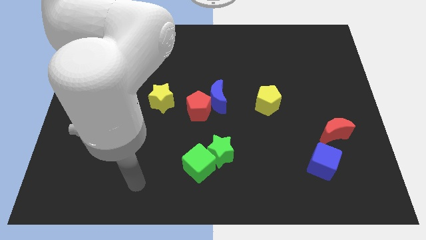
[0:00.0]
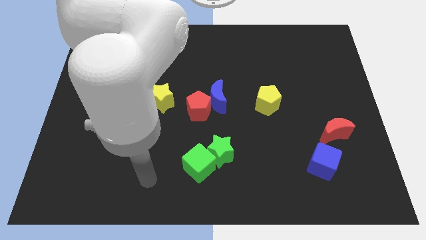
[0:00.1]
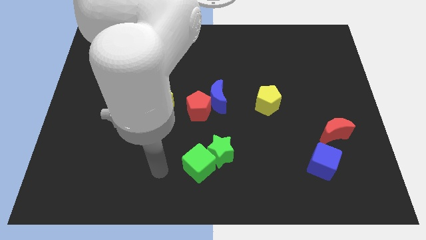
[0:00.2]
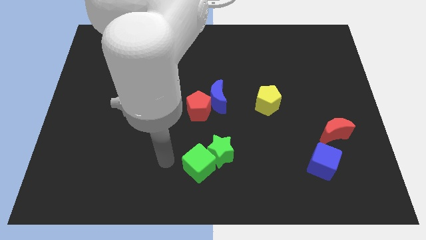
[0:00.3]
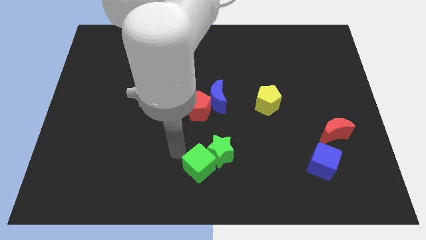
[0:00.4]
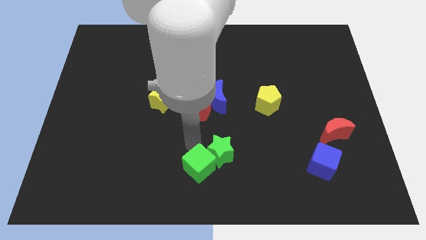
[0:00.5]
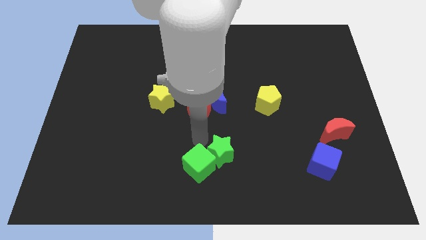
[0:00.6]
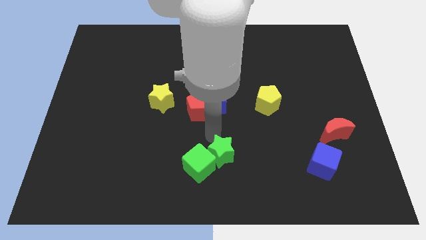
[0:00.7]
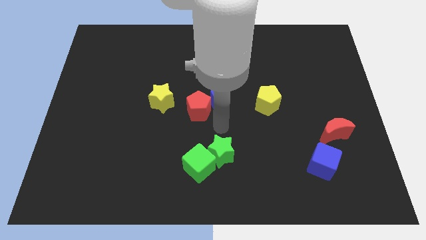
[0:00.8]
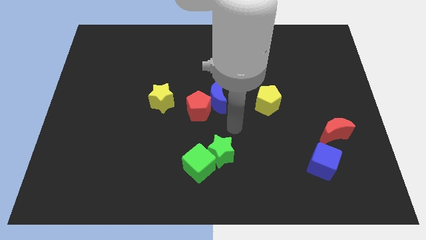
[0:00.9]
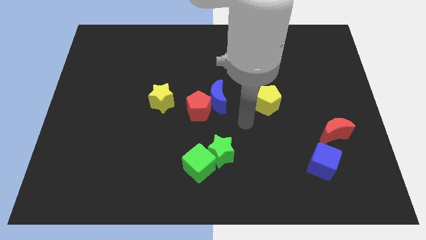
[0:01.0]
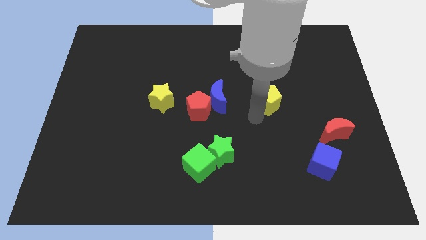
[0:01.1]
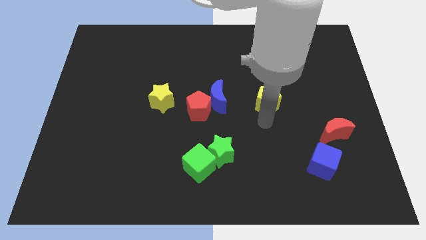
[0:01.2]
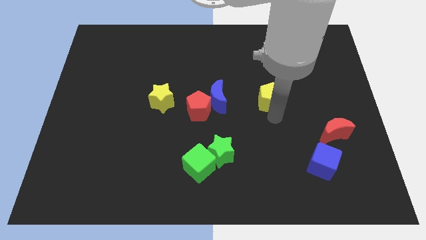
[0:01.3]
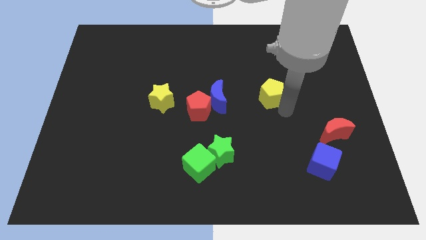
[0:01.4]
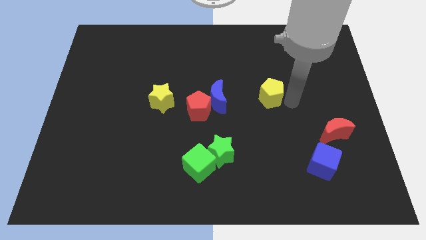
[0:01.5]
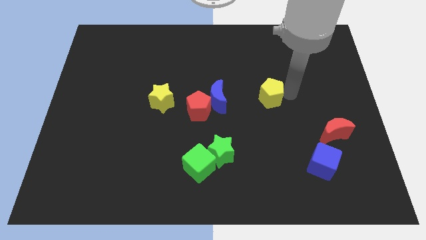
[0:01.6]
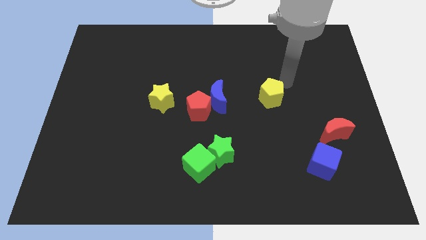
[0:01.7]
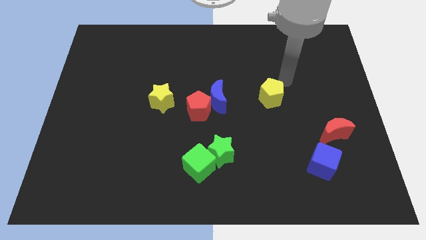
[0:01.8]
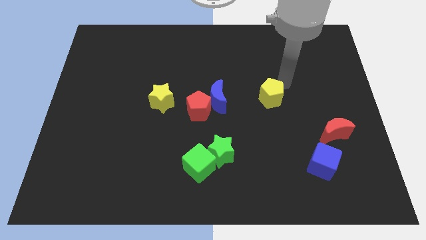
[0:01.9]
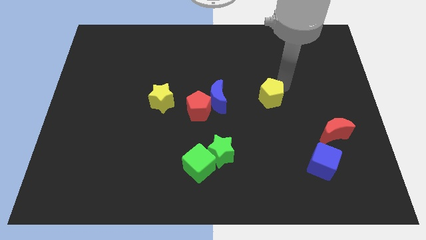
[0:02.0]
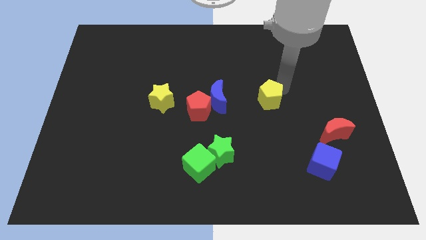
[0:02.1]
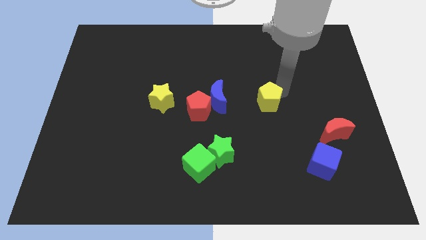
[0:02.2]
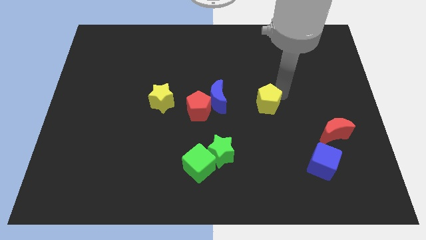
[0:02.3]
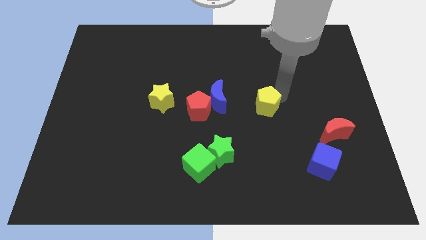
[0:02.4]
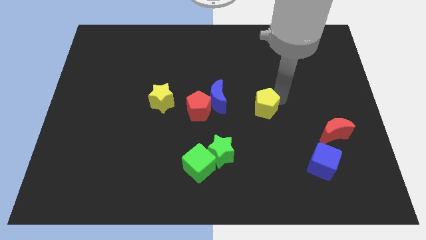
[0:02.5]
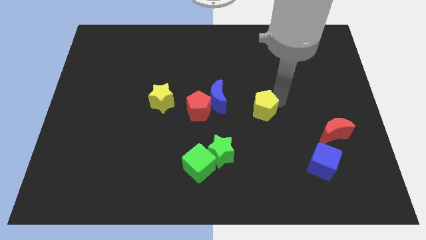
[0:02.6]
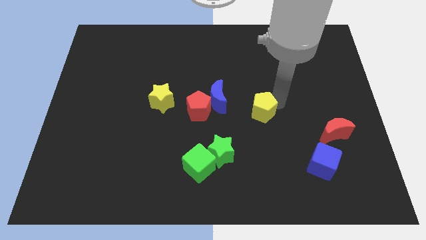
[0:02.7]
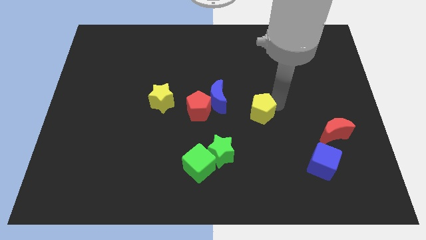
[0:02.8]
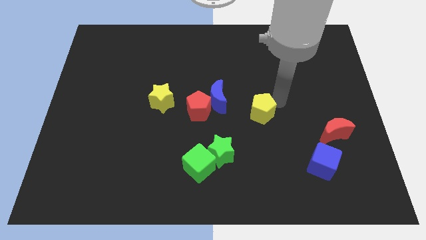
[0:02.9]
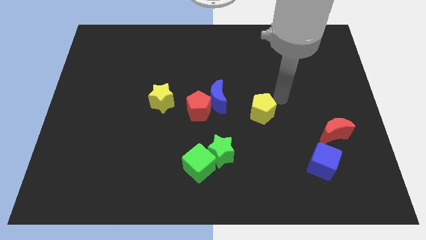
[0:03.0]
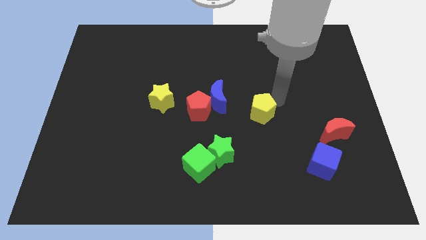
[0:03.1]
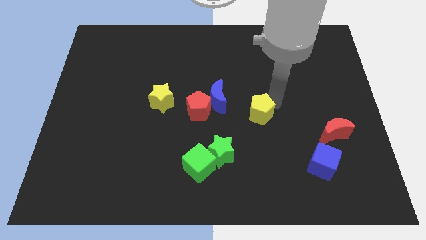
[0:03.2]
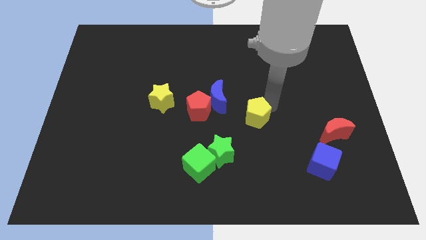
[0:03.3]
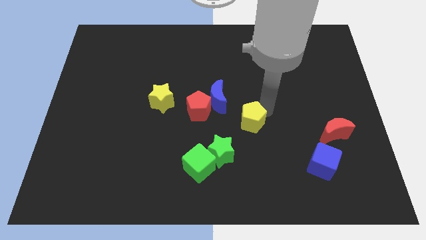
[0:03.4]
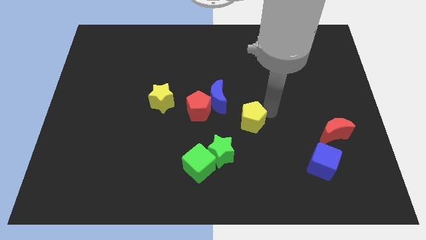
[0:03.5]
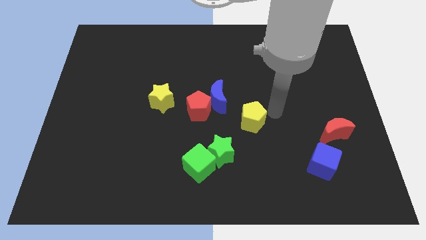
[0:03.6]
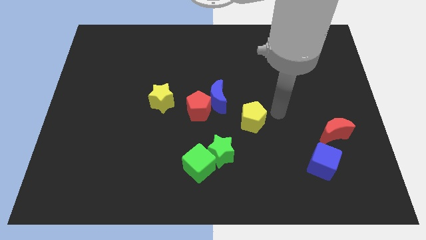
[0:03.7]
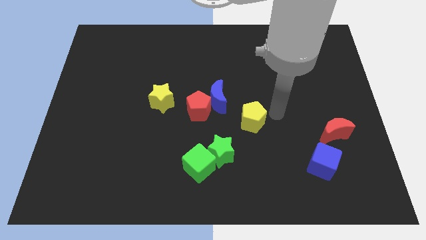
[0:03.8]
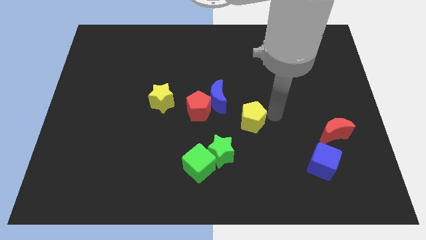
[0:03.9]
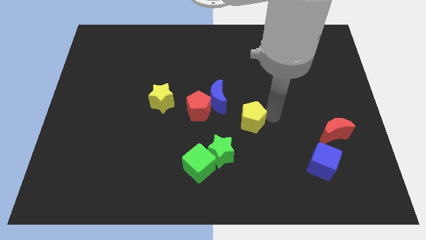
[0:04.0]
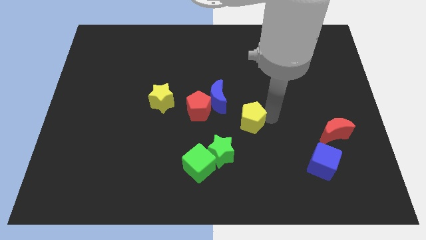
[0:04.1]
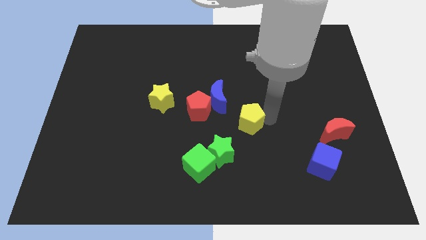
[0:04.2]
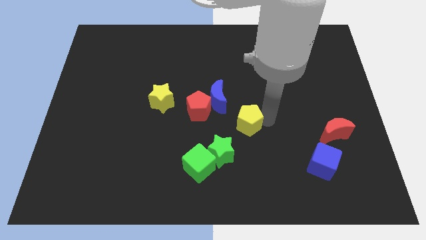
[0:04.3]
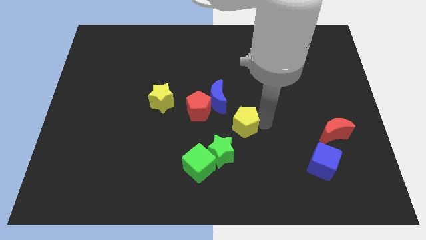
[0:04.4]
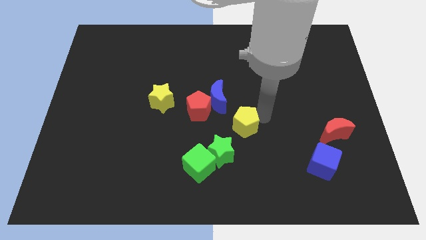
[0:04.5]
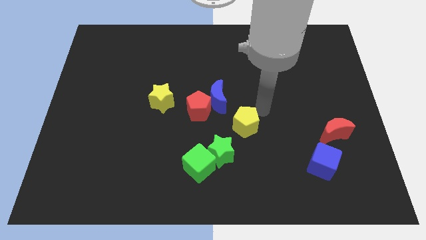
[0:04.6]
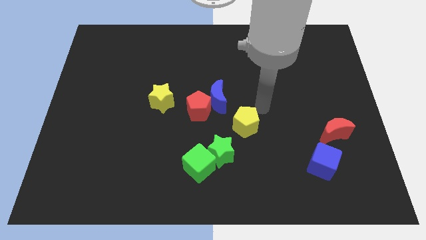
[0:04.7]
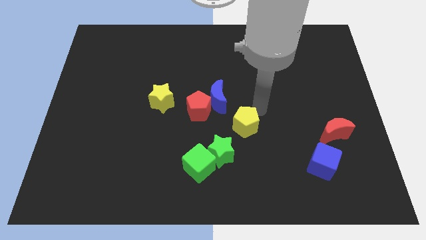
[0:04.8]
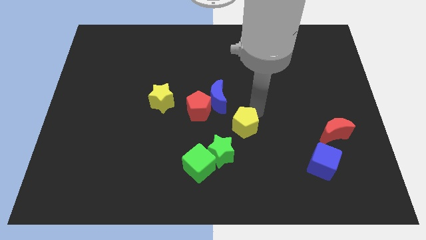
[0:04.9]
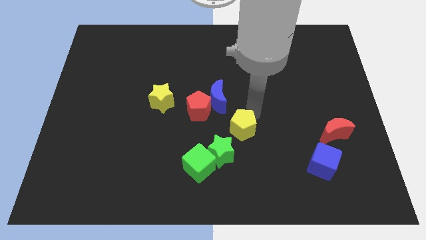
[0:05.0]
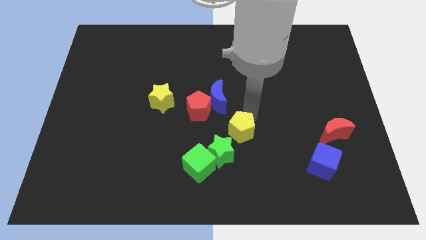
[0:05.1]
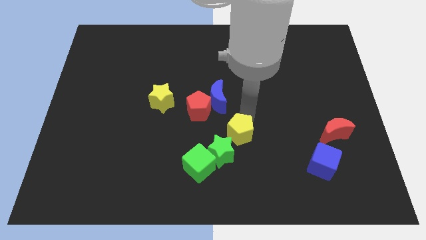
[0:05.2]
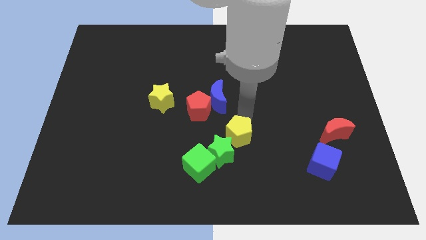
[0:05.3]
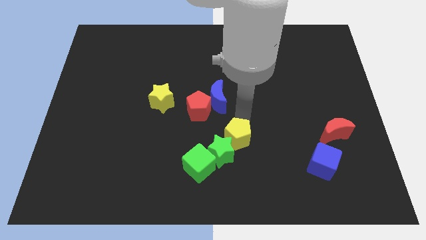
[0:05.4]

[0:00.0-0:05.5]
put the yellow pentagon to the green star

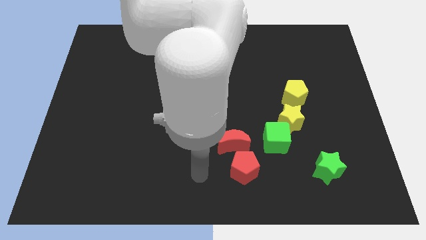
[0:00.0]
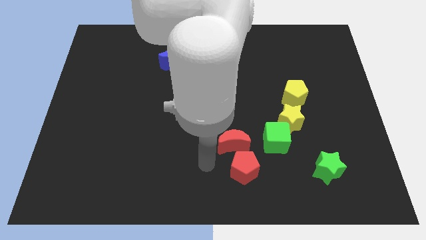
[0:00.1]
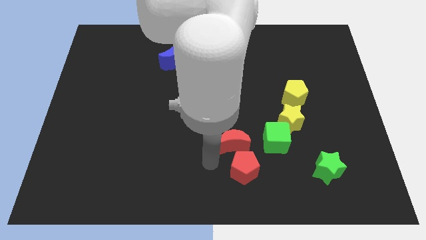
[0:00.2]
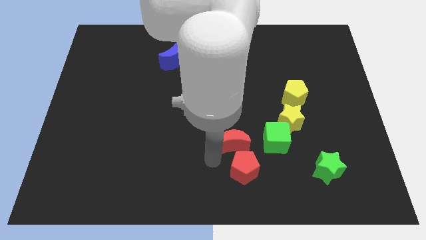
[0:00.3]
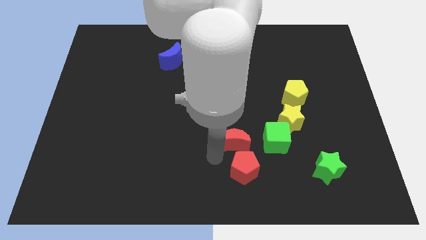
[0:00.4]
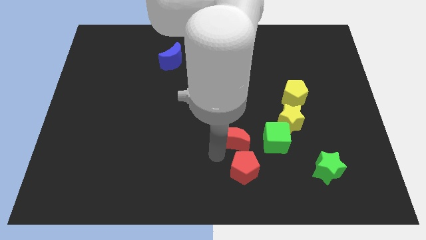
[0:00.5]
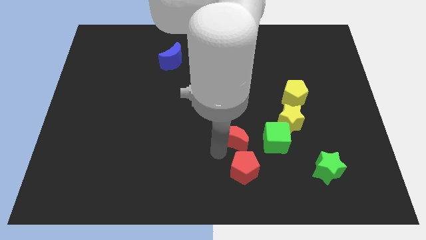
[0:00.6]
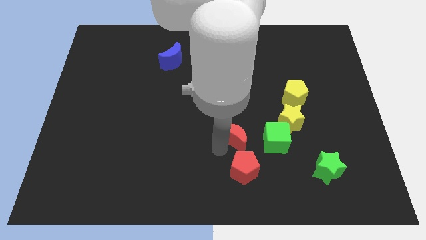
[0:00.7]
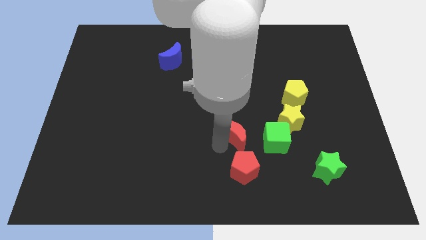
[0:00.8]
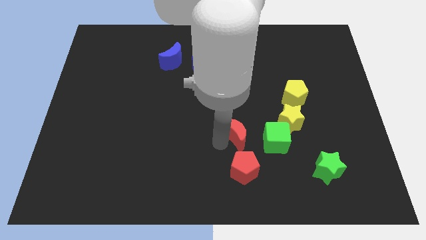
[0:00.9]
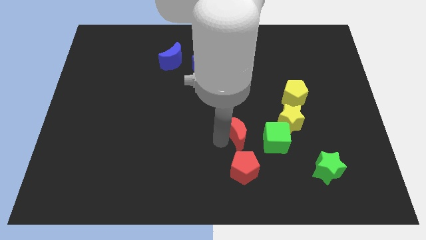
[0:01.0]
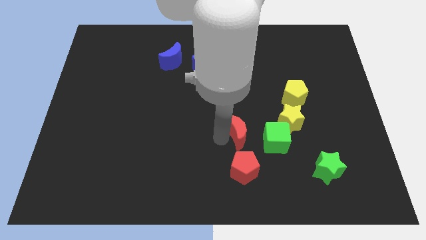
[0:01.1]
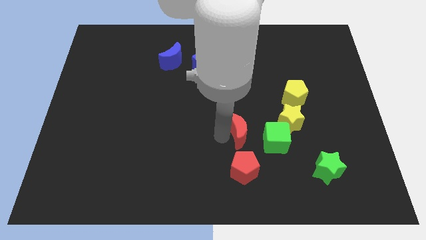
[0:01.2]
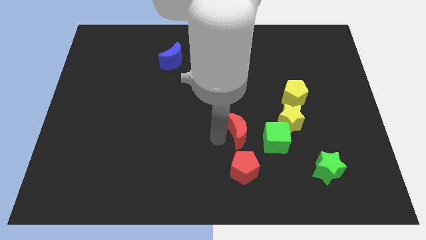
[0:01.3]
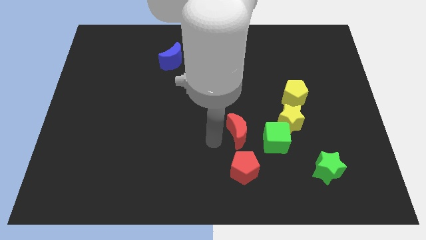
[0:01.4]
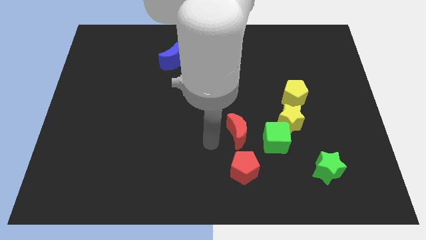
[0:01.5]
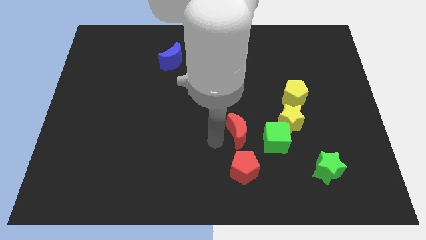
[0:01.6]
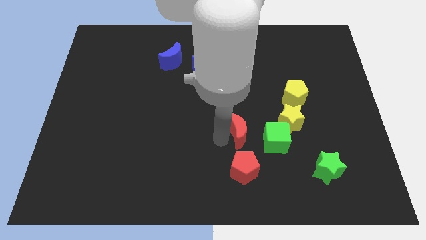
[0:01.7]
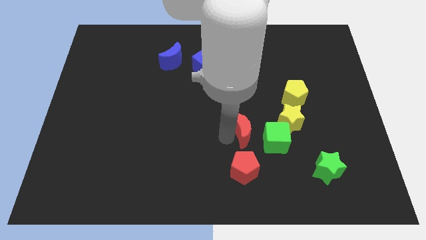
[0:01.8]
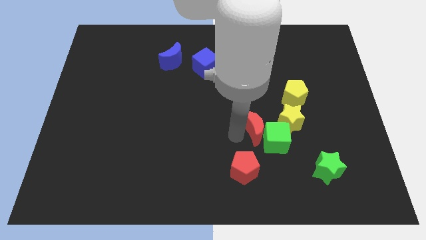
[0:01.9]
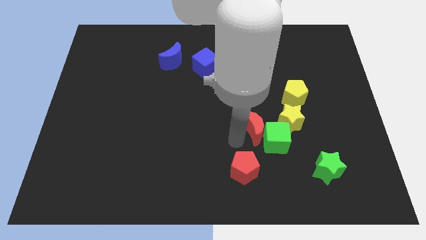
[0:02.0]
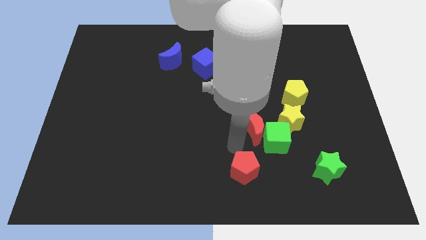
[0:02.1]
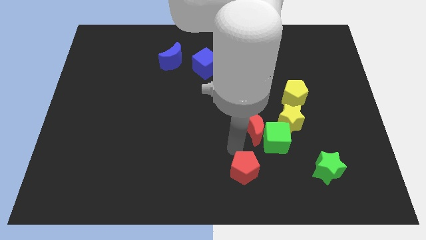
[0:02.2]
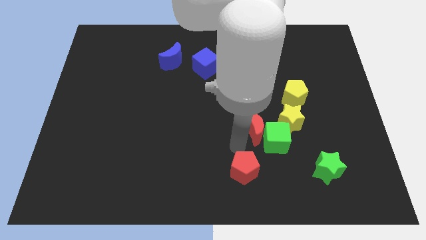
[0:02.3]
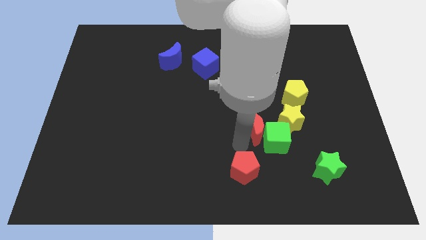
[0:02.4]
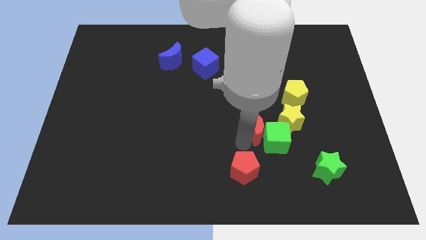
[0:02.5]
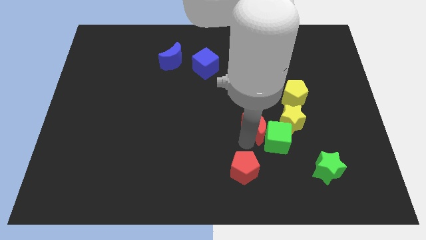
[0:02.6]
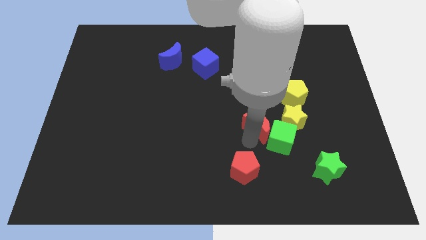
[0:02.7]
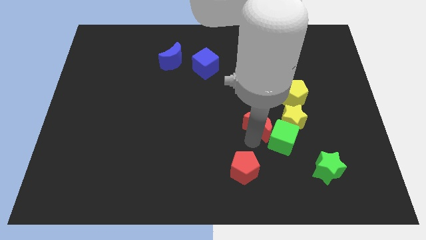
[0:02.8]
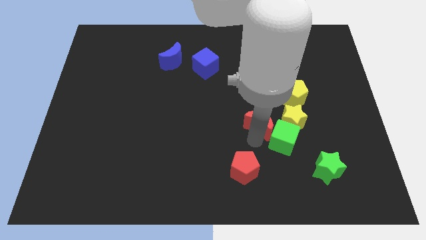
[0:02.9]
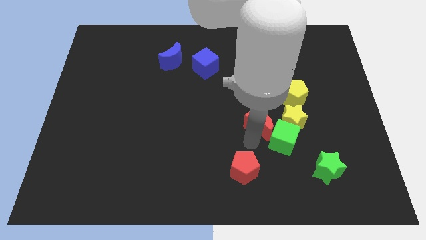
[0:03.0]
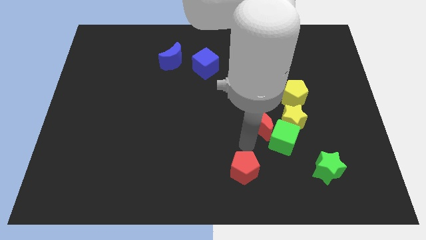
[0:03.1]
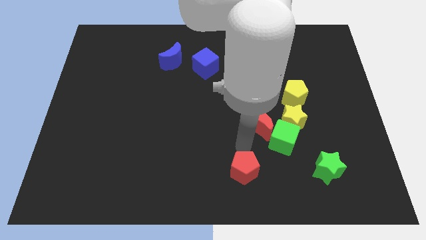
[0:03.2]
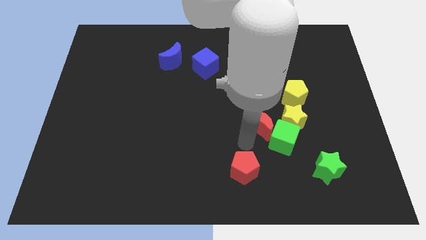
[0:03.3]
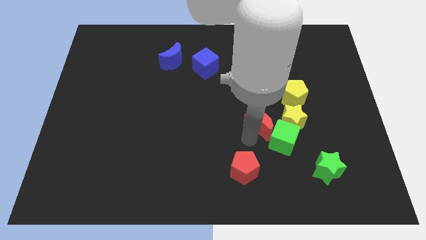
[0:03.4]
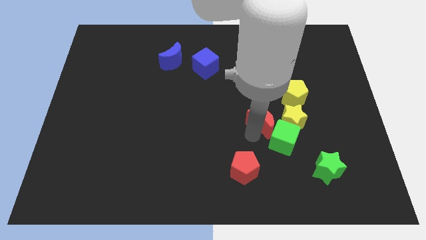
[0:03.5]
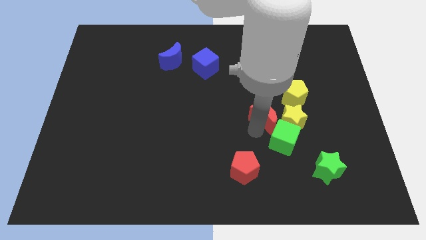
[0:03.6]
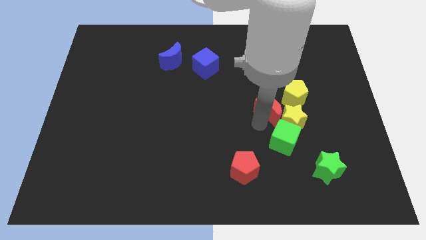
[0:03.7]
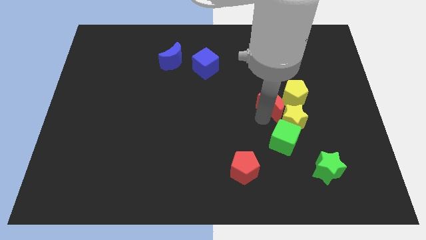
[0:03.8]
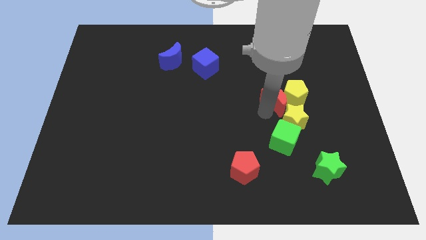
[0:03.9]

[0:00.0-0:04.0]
push the red moon next to the yellow pentagon
